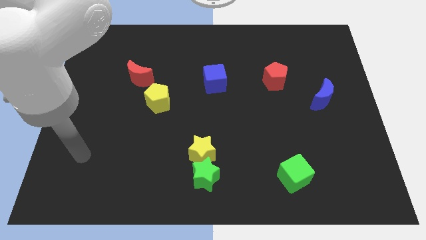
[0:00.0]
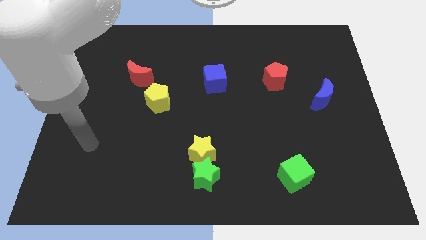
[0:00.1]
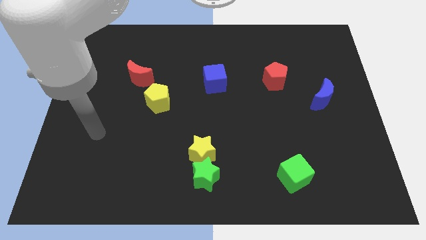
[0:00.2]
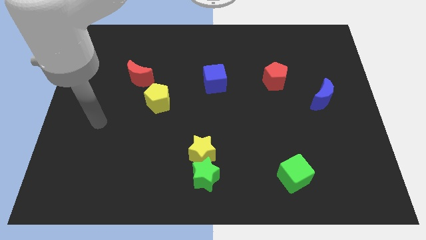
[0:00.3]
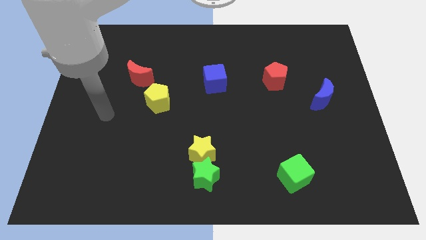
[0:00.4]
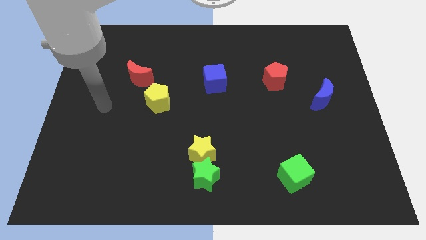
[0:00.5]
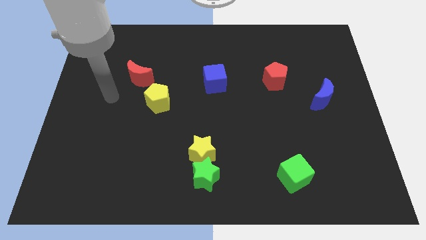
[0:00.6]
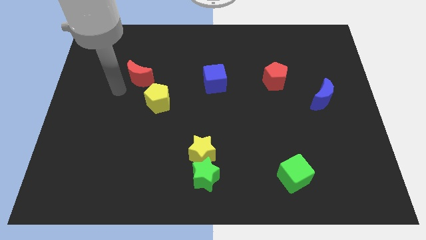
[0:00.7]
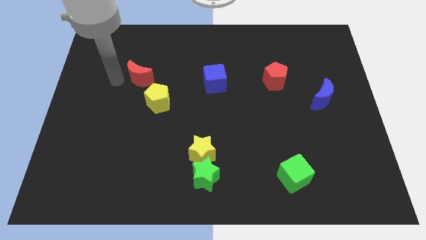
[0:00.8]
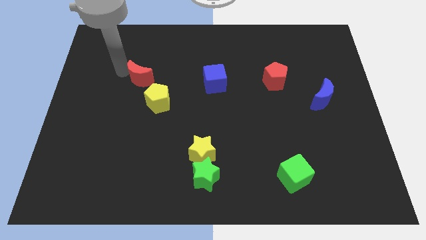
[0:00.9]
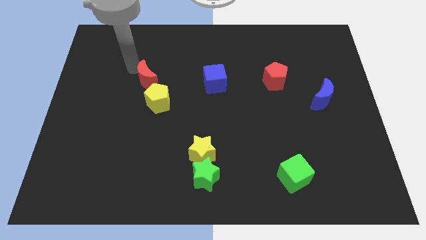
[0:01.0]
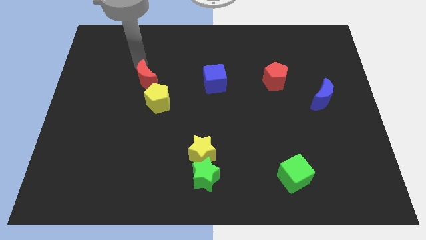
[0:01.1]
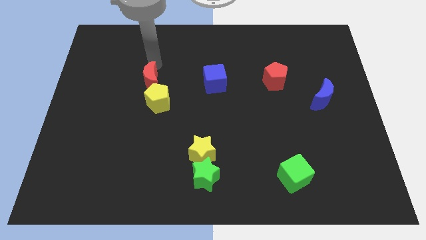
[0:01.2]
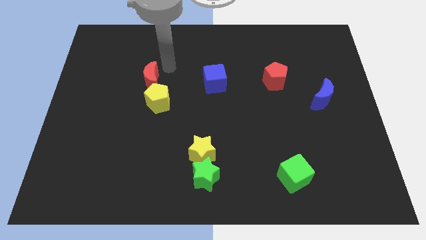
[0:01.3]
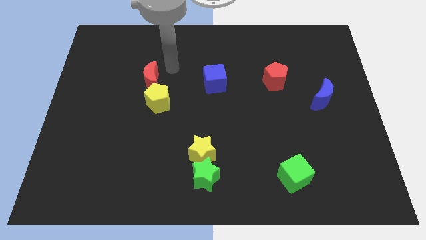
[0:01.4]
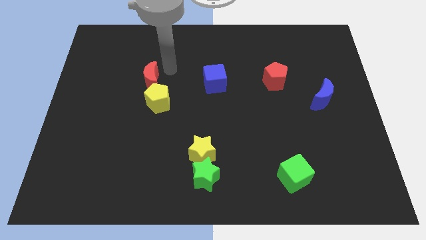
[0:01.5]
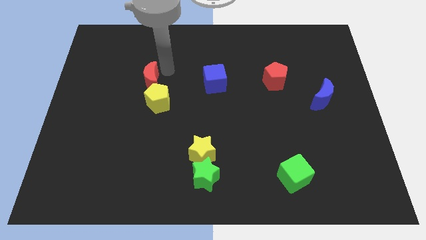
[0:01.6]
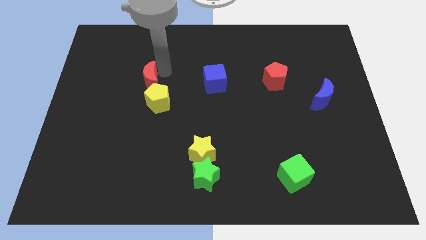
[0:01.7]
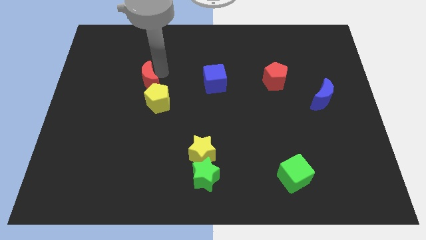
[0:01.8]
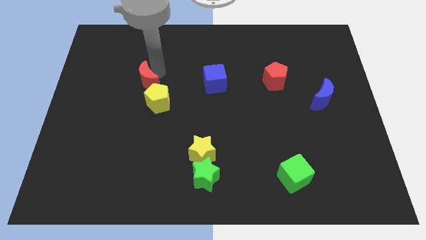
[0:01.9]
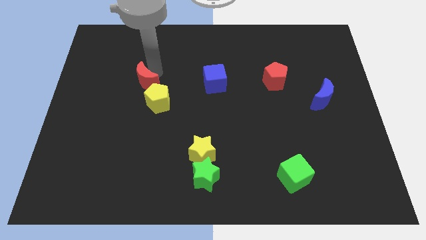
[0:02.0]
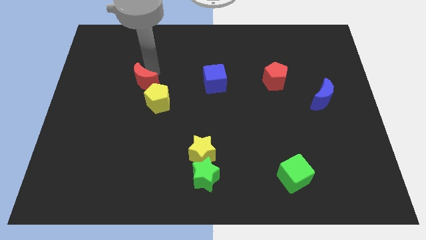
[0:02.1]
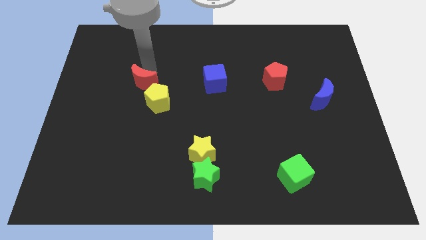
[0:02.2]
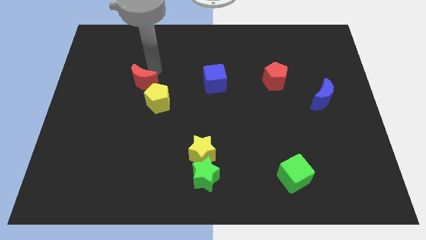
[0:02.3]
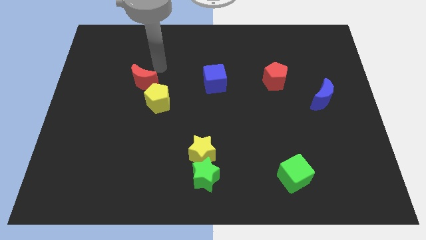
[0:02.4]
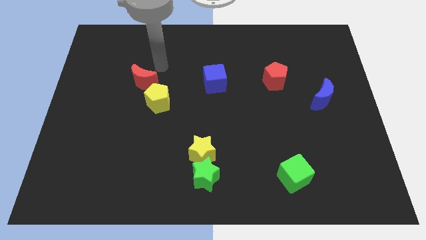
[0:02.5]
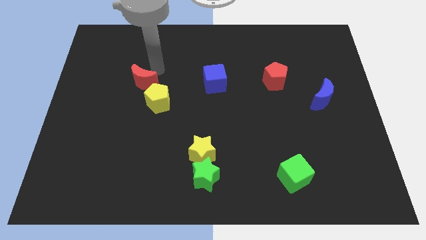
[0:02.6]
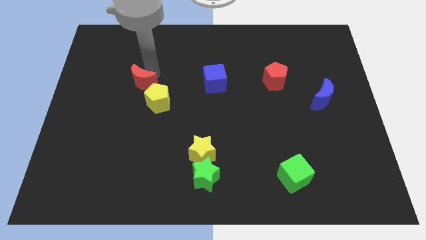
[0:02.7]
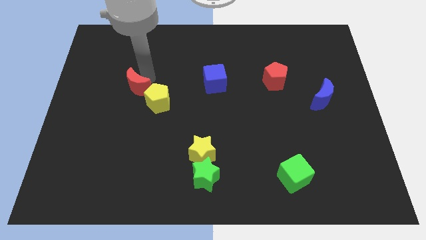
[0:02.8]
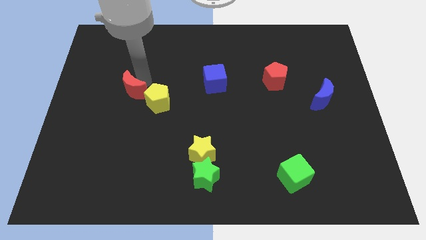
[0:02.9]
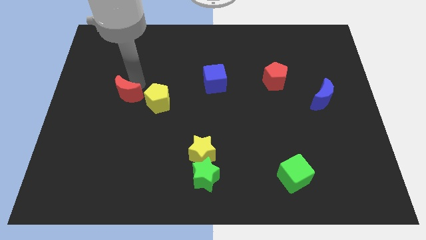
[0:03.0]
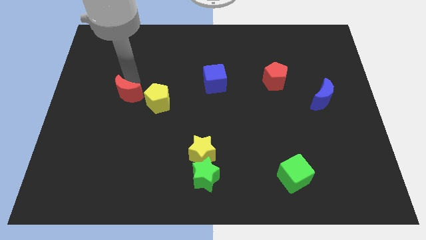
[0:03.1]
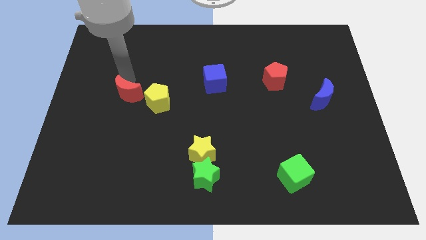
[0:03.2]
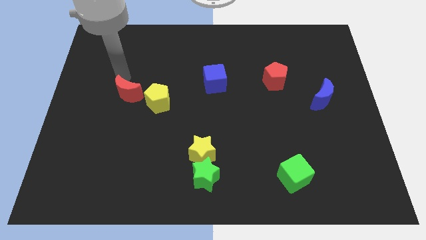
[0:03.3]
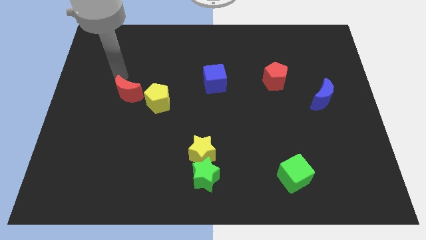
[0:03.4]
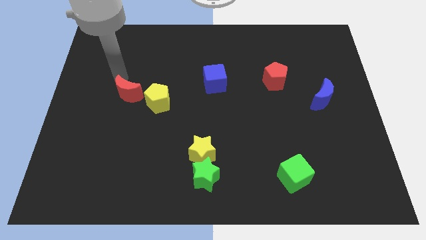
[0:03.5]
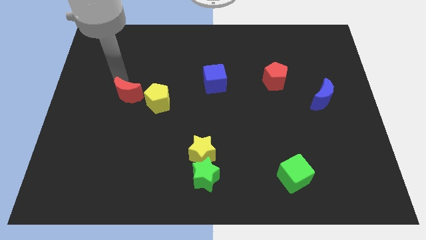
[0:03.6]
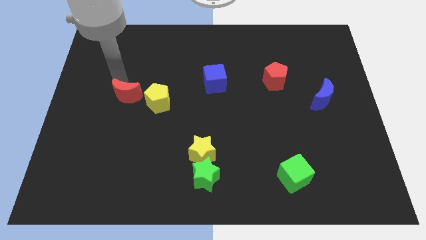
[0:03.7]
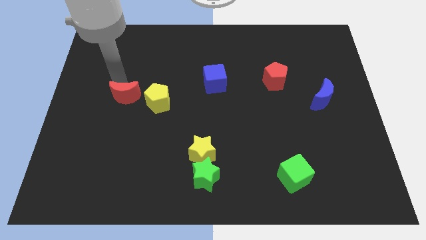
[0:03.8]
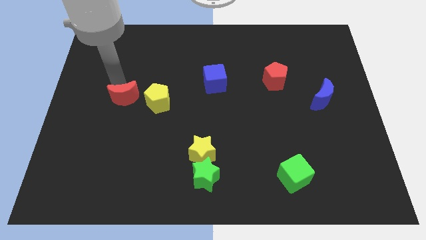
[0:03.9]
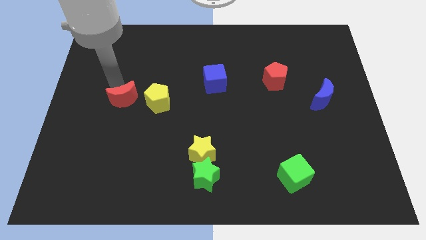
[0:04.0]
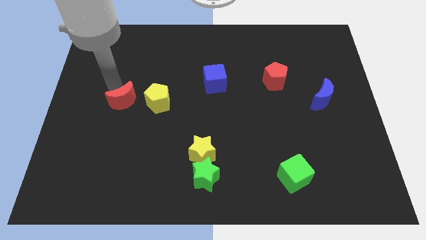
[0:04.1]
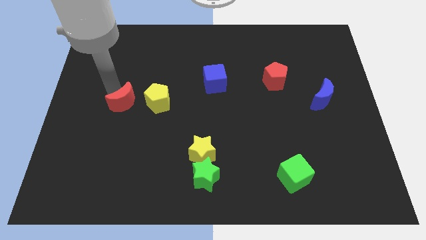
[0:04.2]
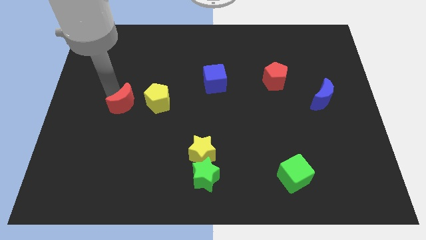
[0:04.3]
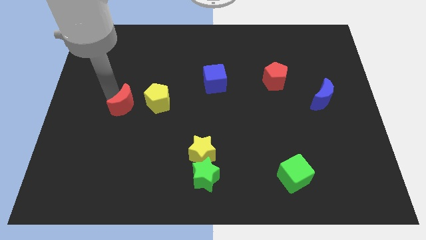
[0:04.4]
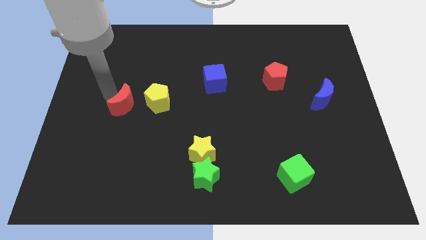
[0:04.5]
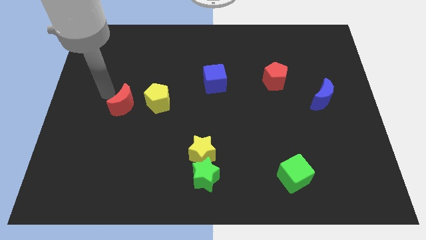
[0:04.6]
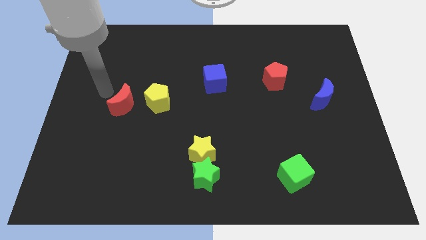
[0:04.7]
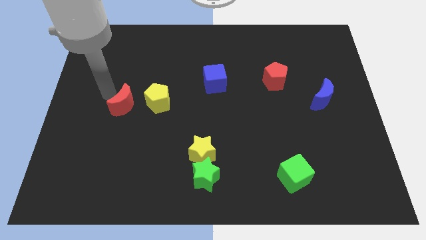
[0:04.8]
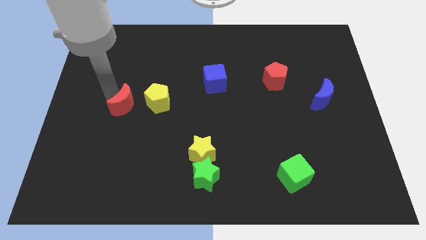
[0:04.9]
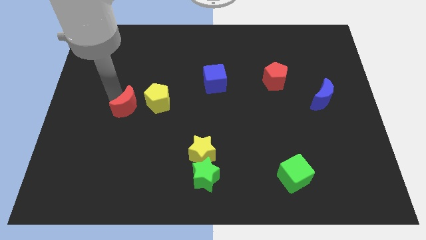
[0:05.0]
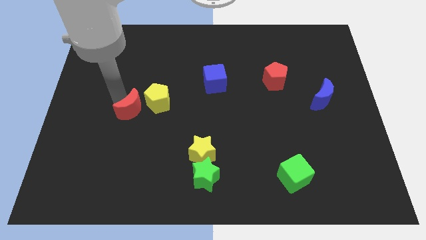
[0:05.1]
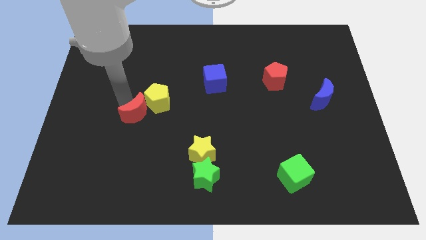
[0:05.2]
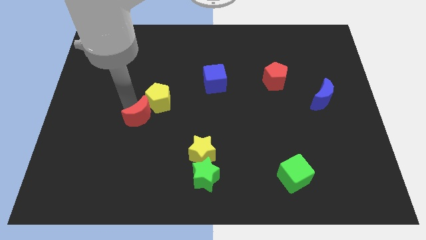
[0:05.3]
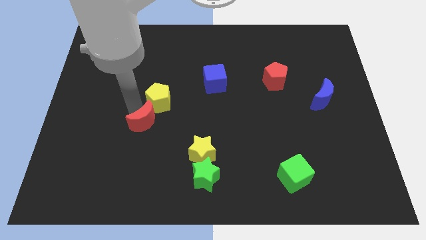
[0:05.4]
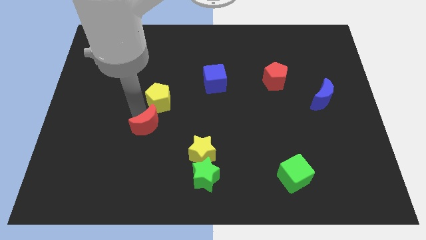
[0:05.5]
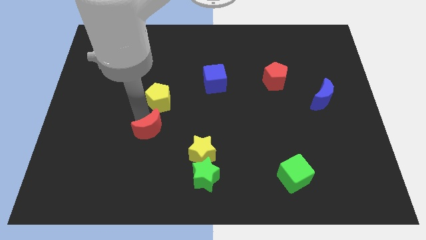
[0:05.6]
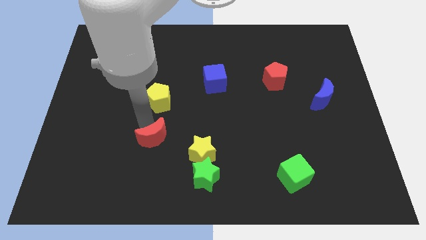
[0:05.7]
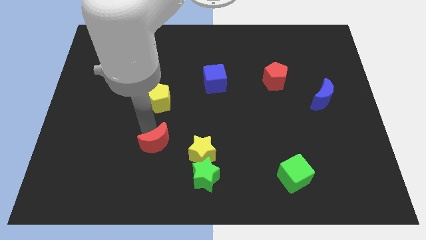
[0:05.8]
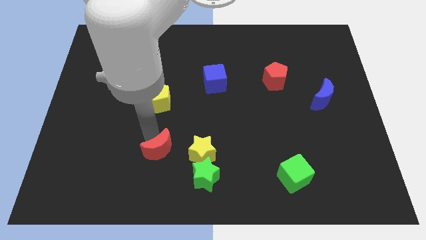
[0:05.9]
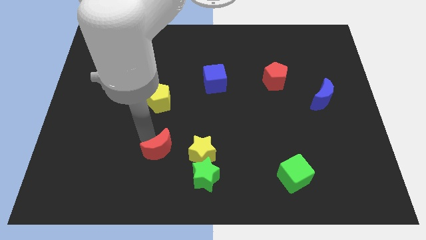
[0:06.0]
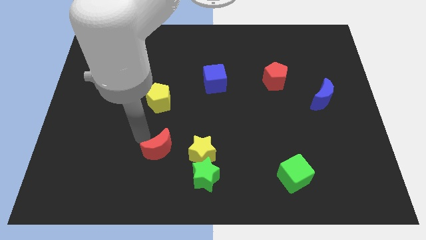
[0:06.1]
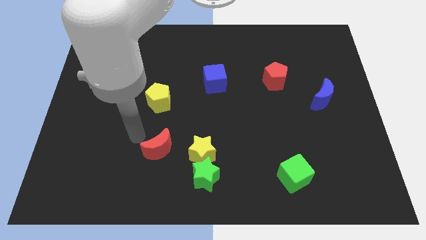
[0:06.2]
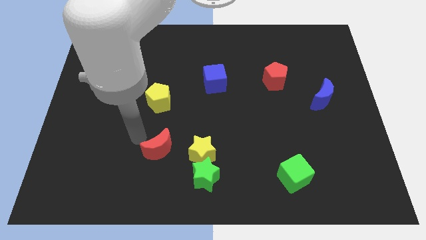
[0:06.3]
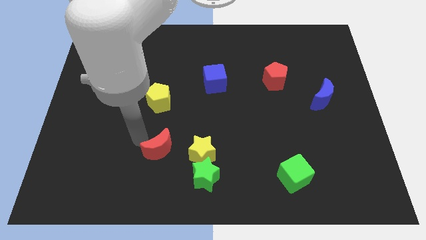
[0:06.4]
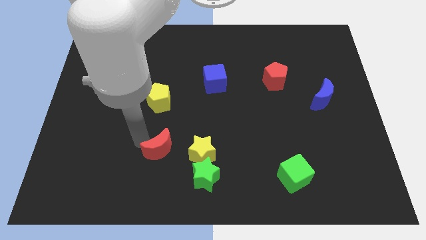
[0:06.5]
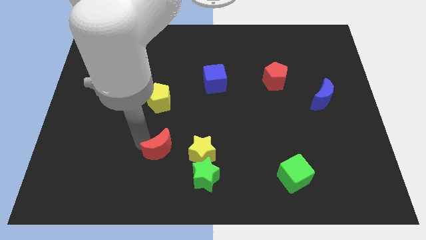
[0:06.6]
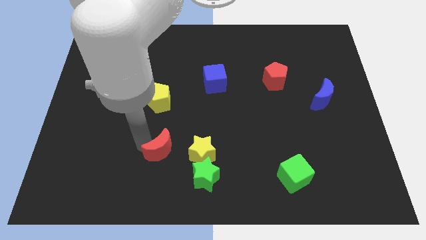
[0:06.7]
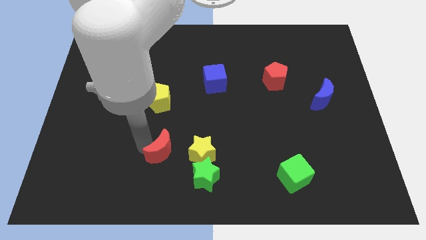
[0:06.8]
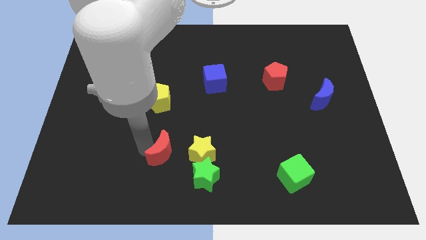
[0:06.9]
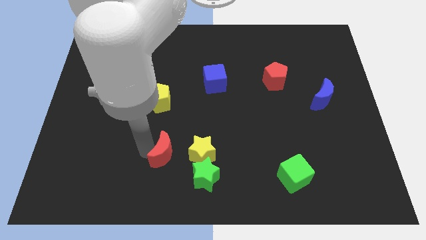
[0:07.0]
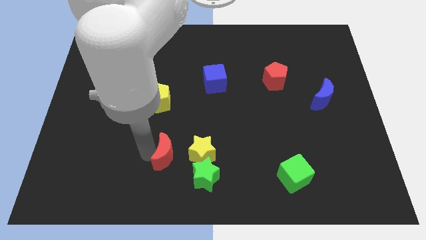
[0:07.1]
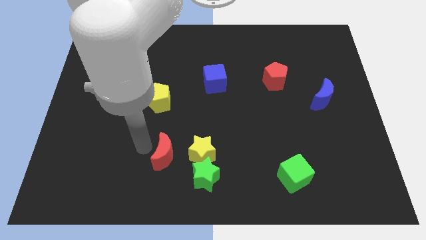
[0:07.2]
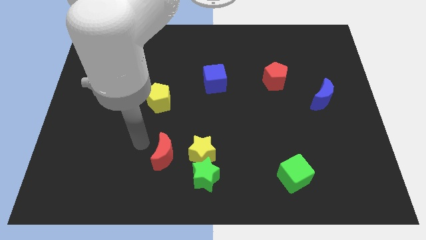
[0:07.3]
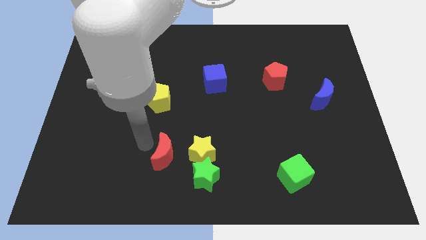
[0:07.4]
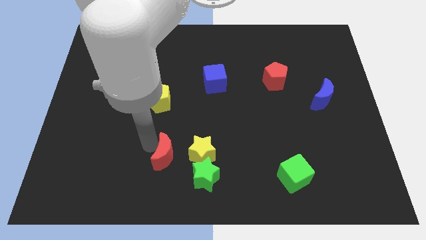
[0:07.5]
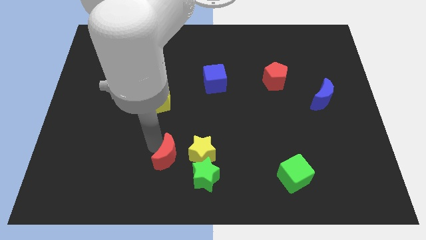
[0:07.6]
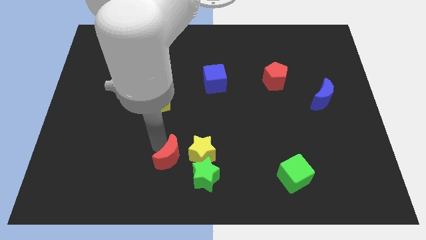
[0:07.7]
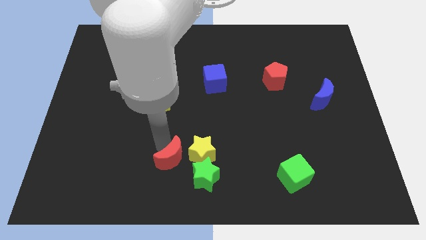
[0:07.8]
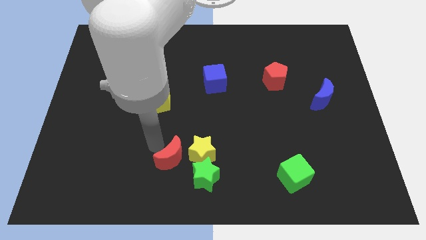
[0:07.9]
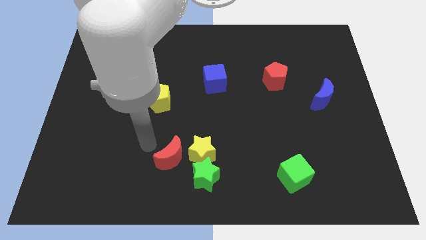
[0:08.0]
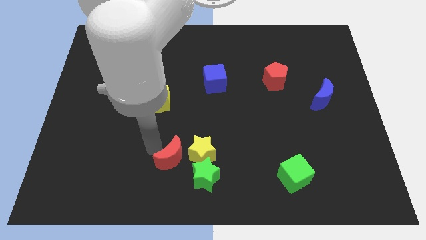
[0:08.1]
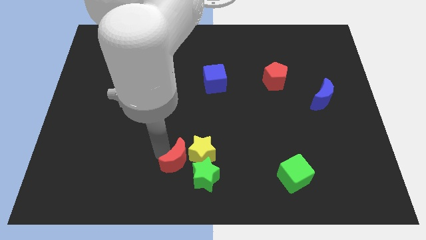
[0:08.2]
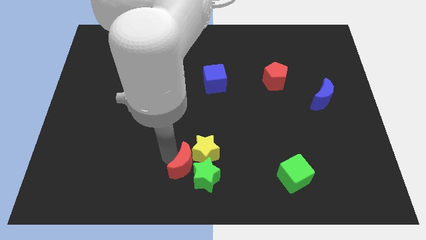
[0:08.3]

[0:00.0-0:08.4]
put the red moon close to the green star
